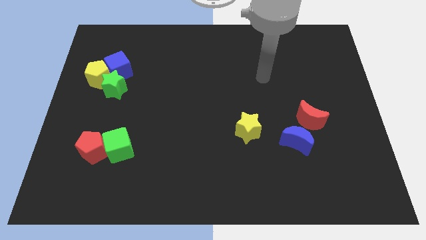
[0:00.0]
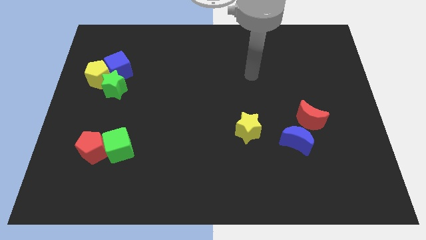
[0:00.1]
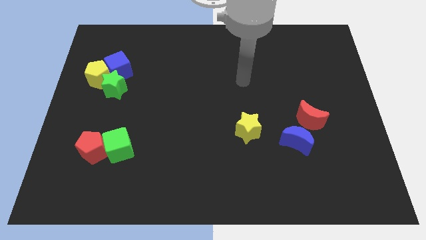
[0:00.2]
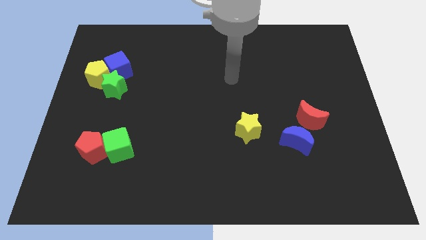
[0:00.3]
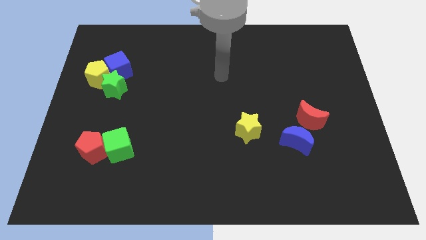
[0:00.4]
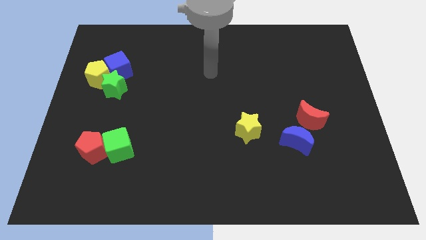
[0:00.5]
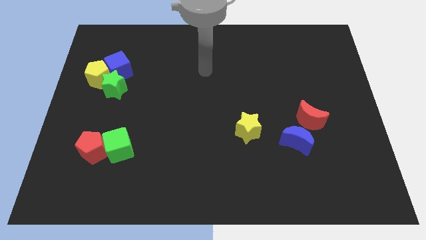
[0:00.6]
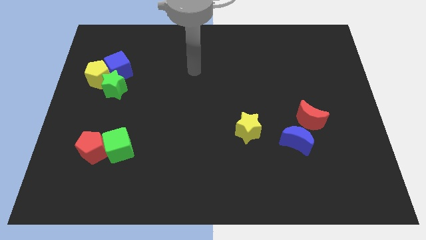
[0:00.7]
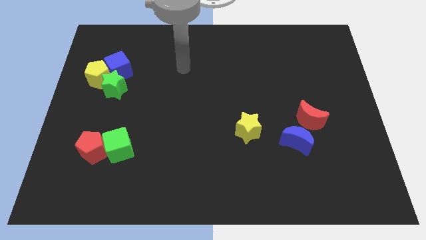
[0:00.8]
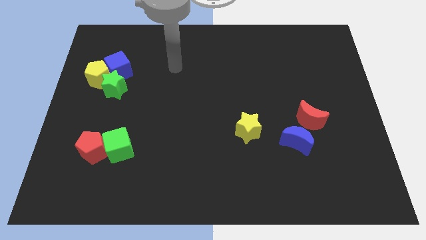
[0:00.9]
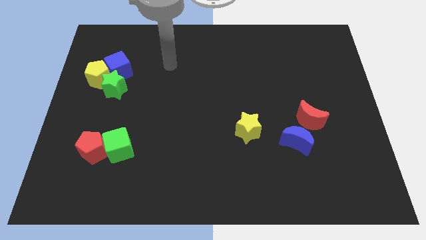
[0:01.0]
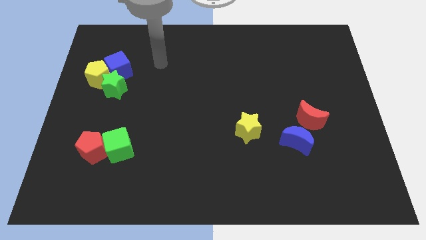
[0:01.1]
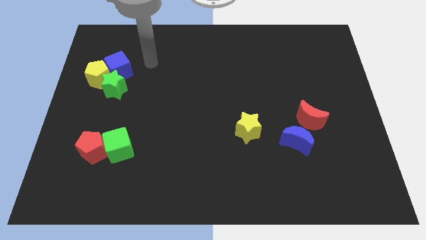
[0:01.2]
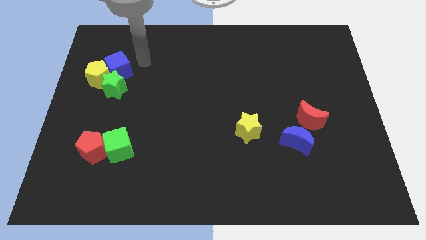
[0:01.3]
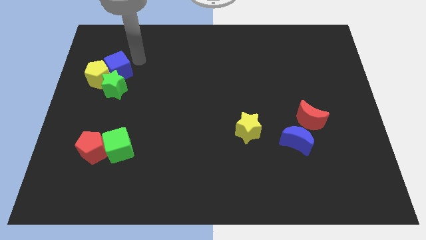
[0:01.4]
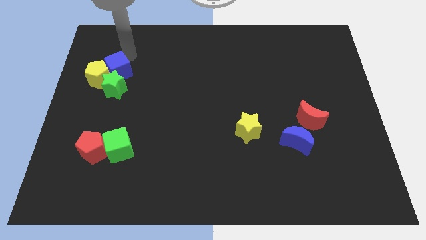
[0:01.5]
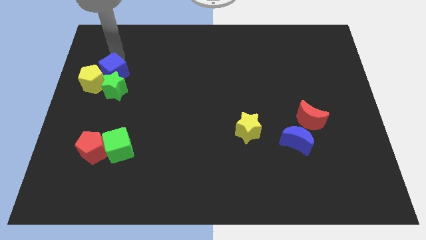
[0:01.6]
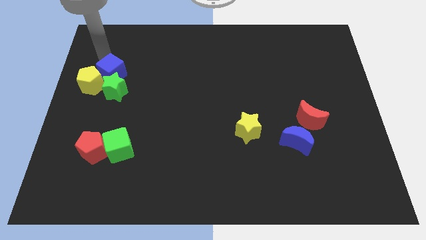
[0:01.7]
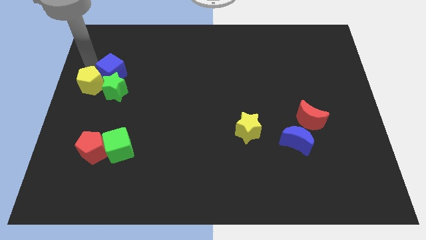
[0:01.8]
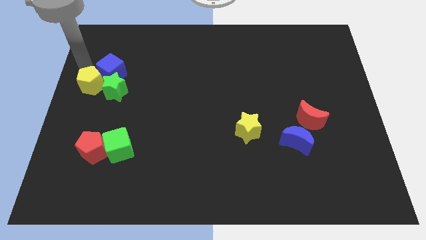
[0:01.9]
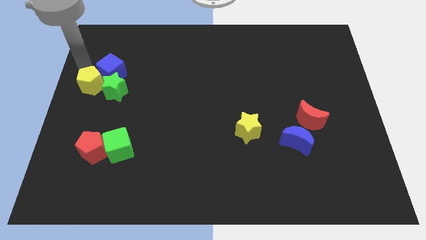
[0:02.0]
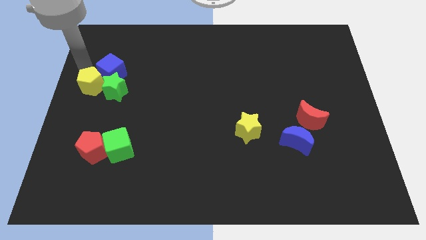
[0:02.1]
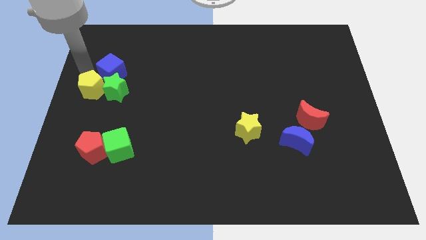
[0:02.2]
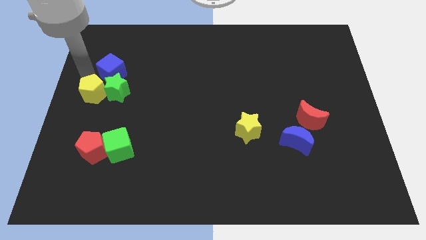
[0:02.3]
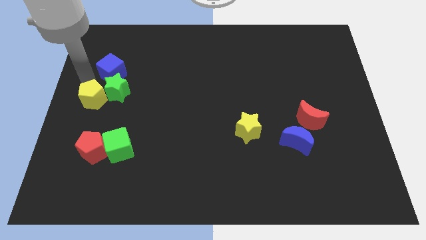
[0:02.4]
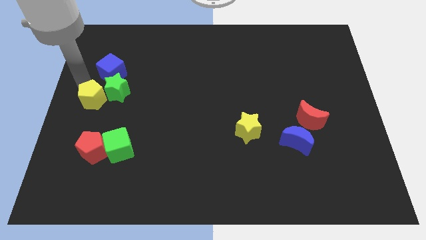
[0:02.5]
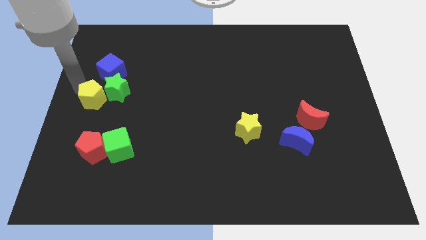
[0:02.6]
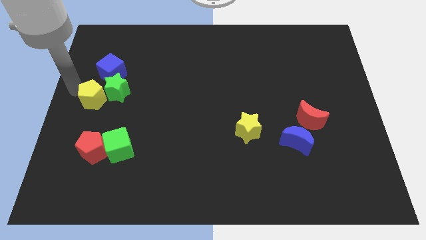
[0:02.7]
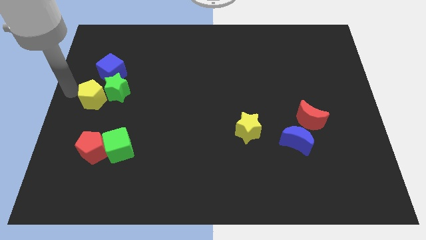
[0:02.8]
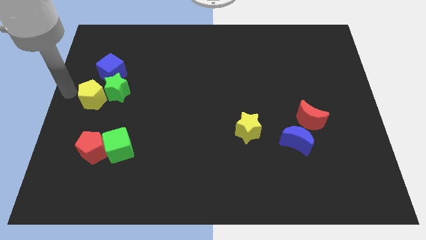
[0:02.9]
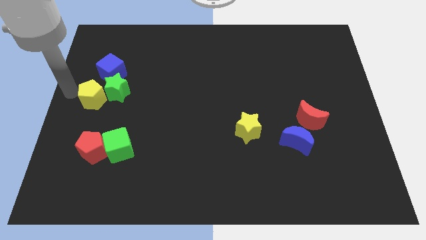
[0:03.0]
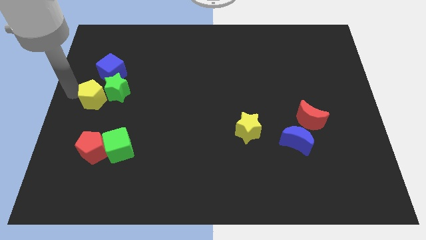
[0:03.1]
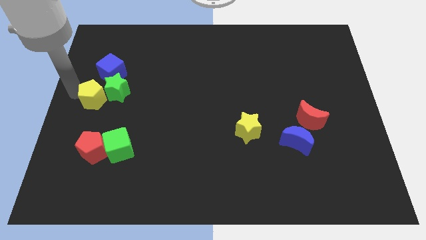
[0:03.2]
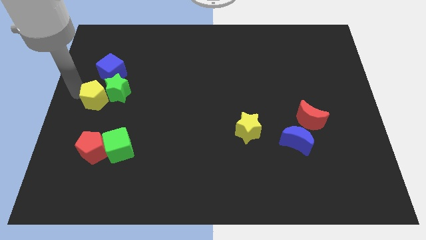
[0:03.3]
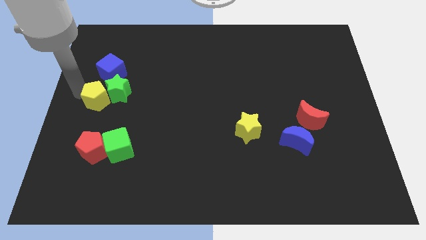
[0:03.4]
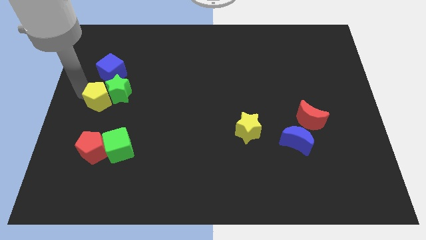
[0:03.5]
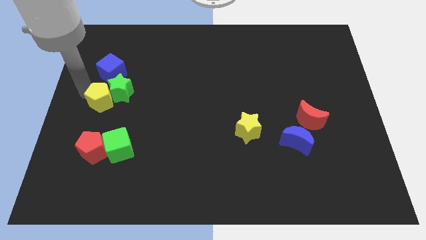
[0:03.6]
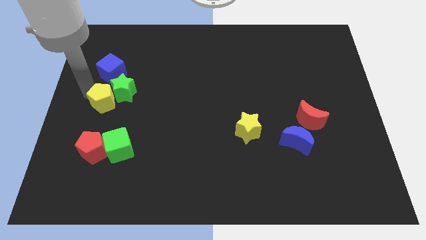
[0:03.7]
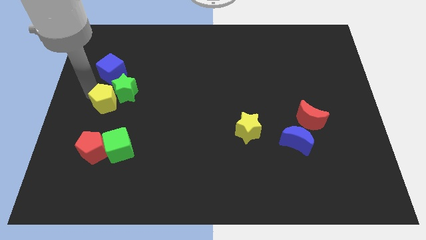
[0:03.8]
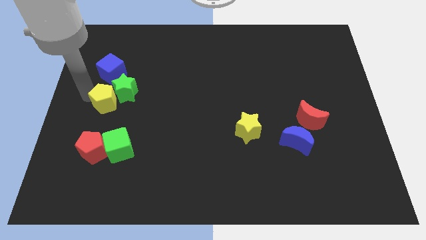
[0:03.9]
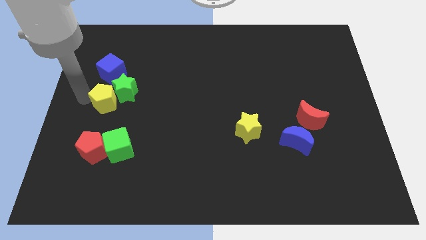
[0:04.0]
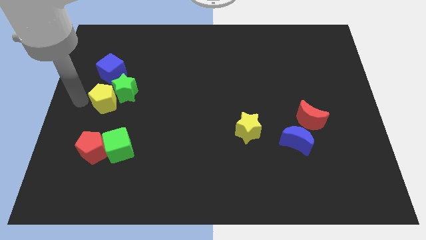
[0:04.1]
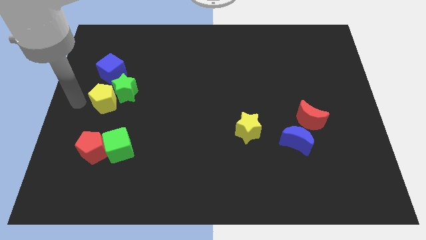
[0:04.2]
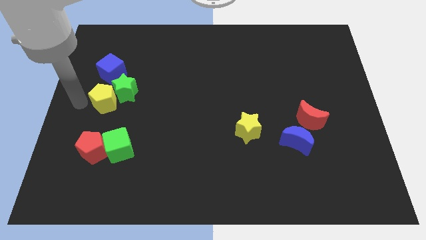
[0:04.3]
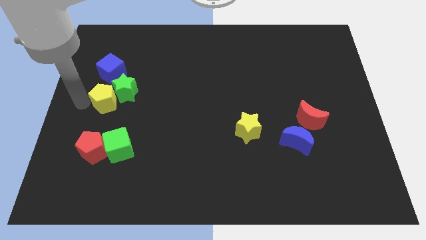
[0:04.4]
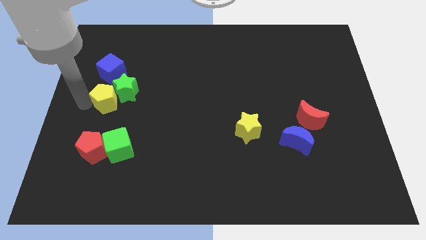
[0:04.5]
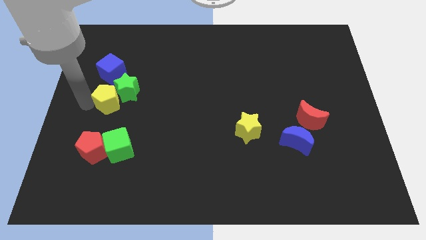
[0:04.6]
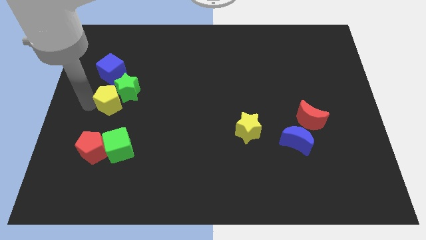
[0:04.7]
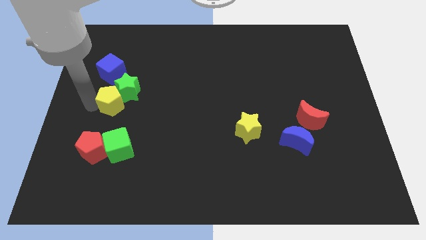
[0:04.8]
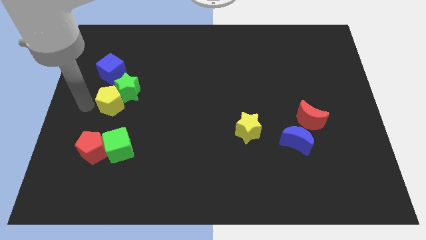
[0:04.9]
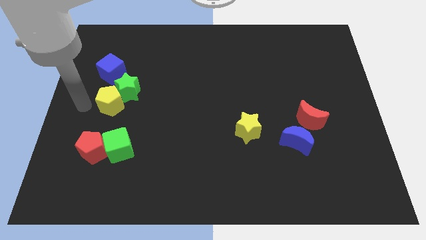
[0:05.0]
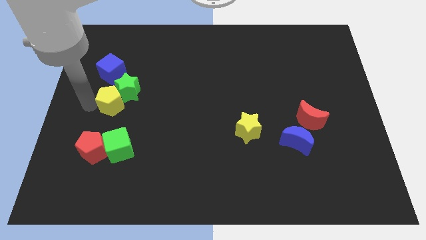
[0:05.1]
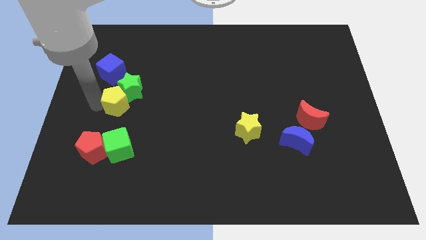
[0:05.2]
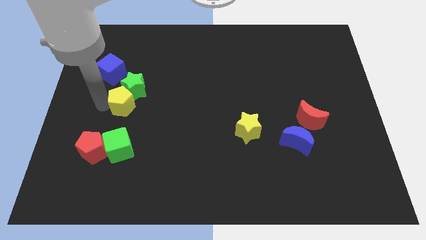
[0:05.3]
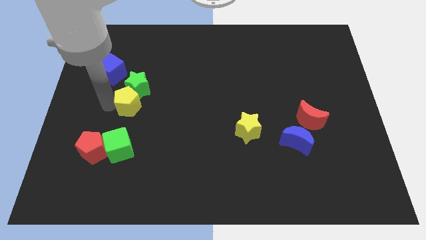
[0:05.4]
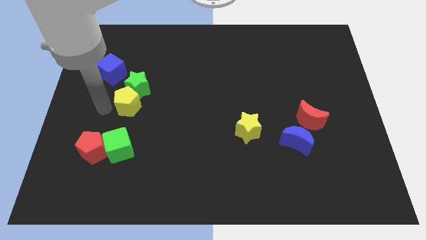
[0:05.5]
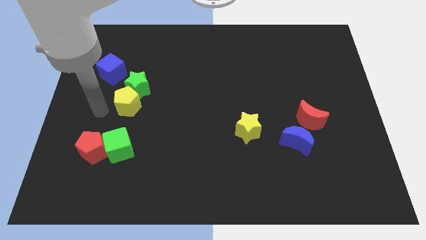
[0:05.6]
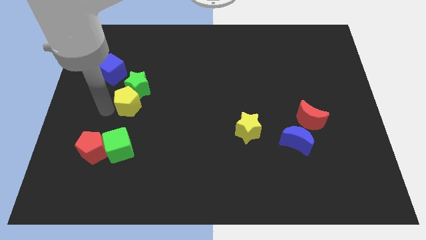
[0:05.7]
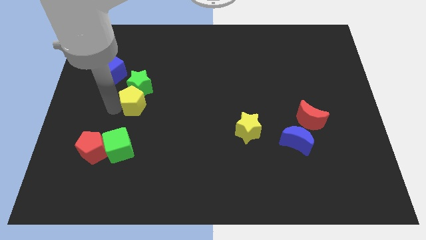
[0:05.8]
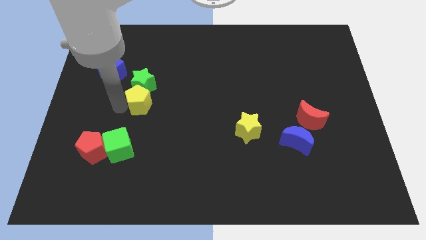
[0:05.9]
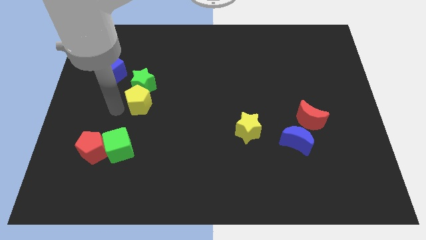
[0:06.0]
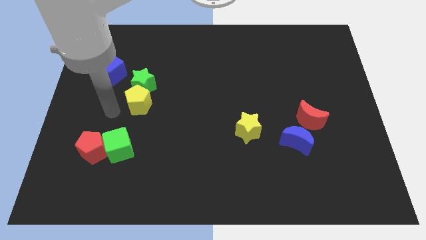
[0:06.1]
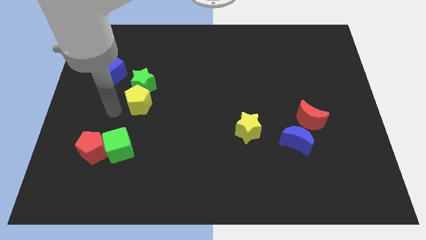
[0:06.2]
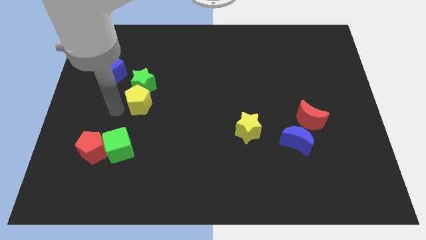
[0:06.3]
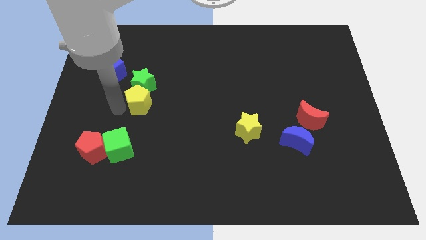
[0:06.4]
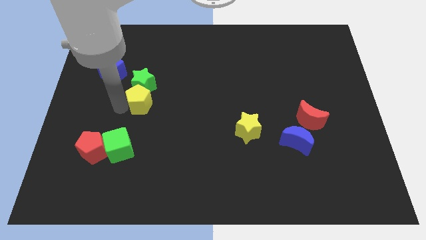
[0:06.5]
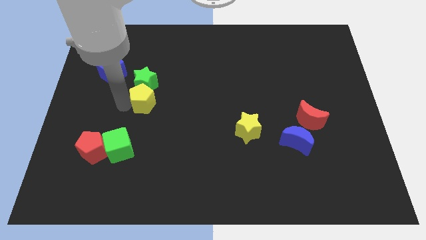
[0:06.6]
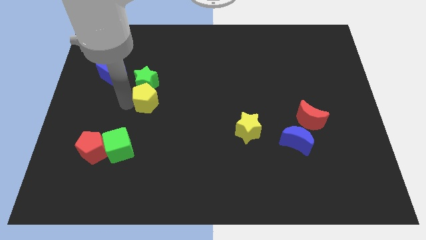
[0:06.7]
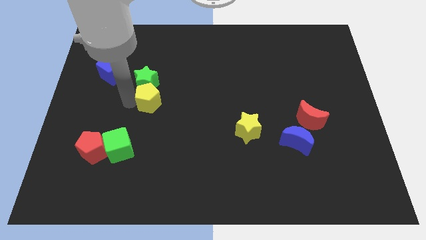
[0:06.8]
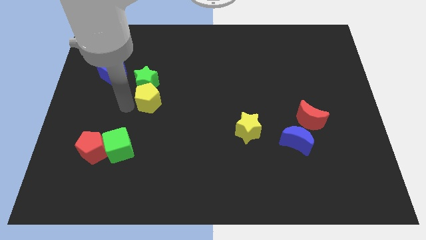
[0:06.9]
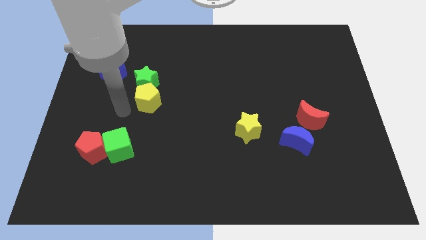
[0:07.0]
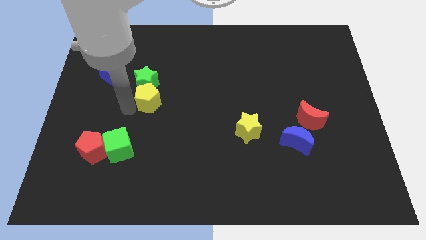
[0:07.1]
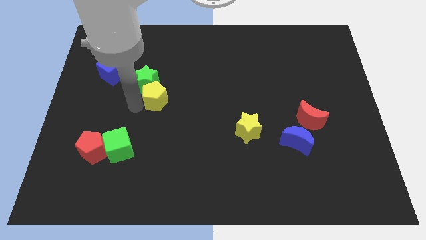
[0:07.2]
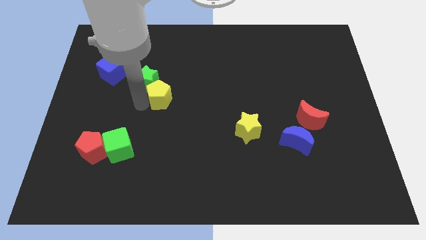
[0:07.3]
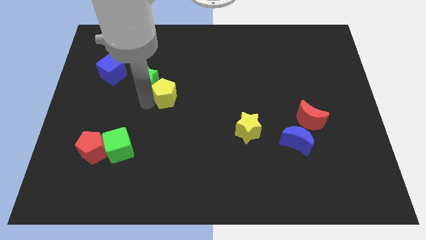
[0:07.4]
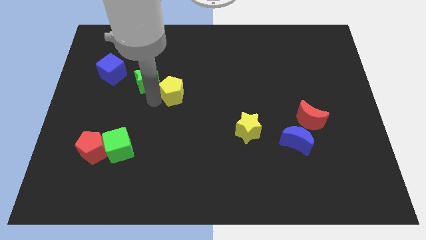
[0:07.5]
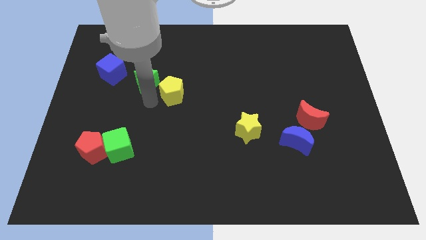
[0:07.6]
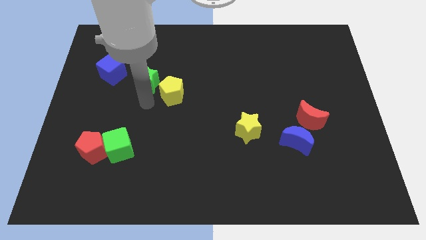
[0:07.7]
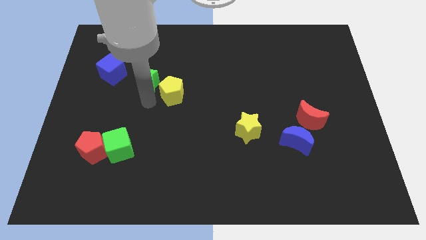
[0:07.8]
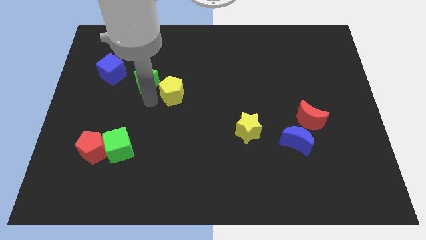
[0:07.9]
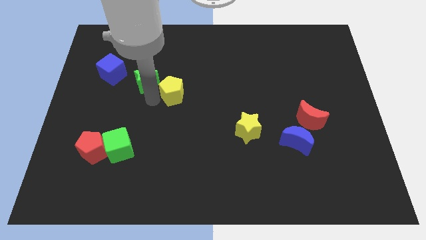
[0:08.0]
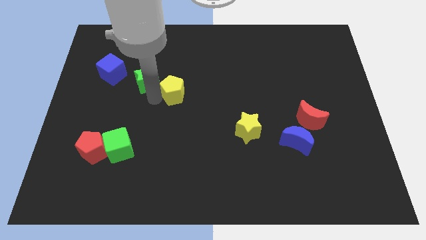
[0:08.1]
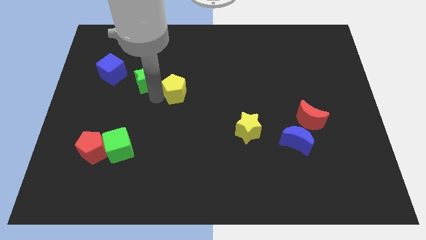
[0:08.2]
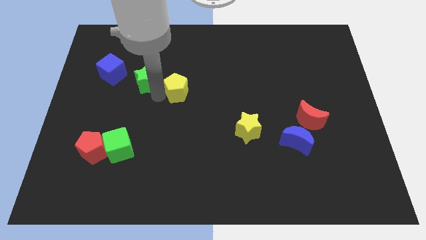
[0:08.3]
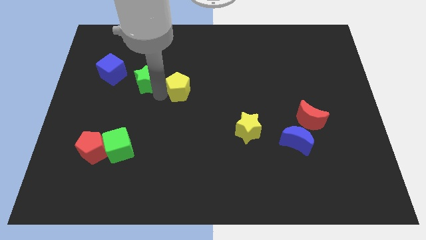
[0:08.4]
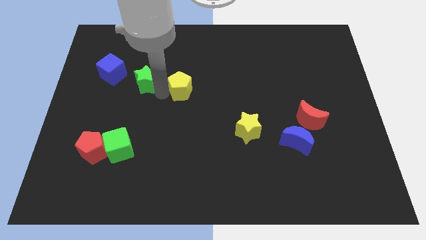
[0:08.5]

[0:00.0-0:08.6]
move the yellow pentagon to the right
